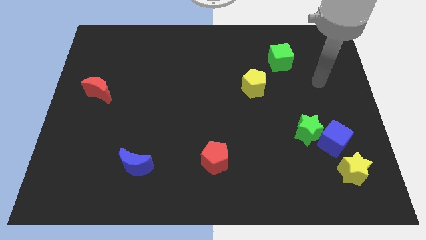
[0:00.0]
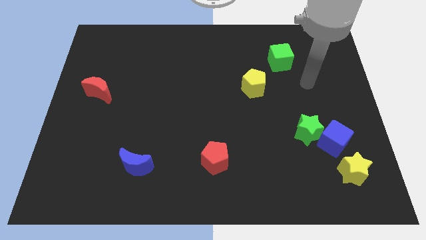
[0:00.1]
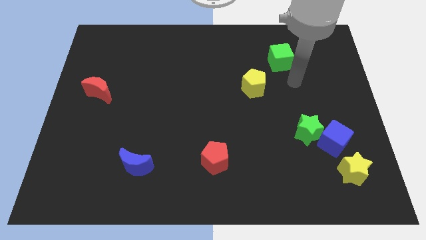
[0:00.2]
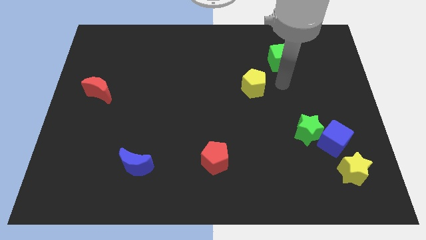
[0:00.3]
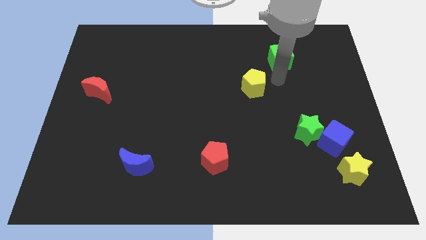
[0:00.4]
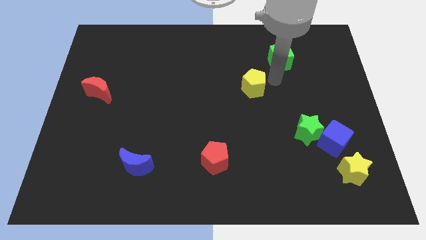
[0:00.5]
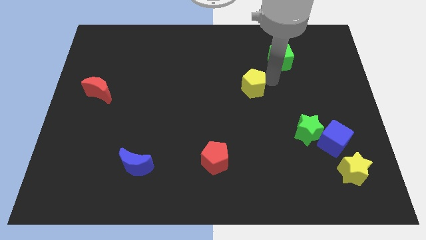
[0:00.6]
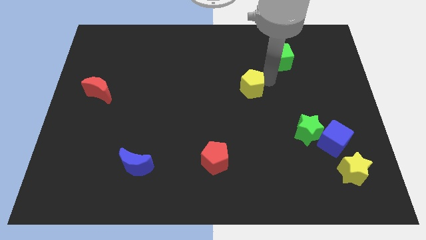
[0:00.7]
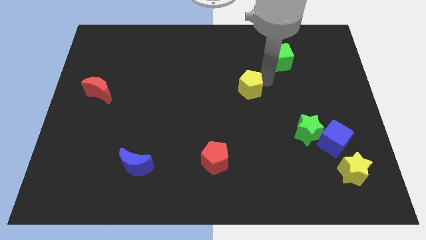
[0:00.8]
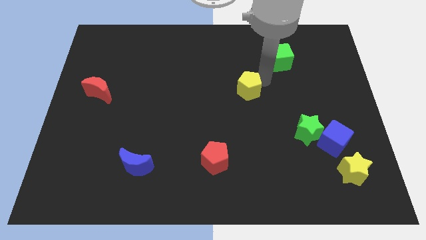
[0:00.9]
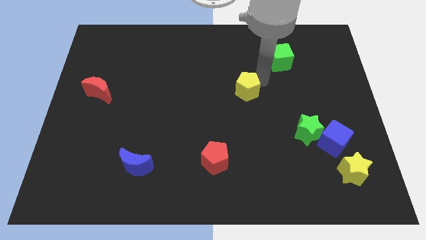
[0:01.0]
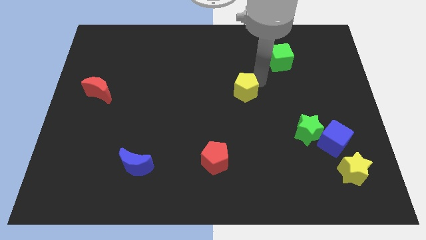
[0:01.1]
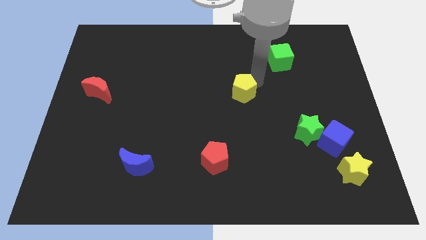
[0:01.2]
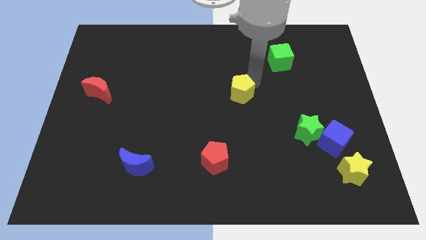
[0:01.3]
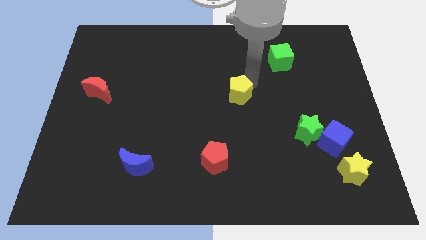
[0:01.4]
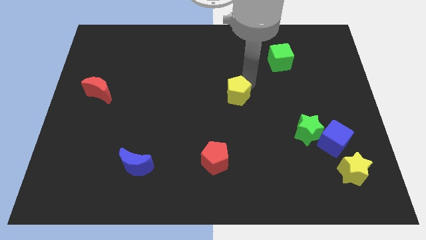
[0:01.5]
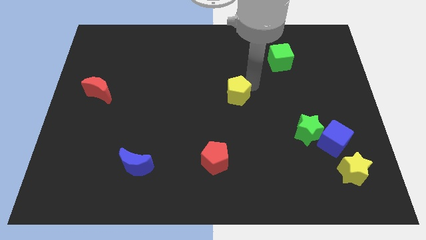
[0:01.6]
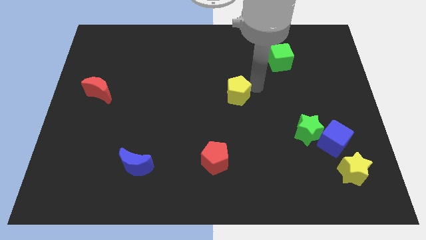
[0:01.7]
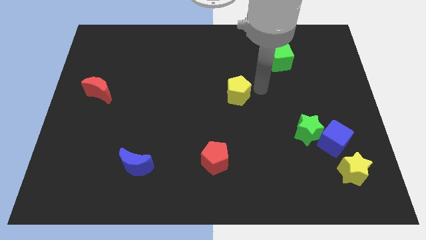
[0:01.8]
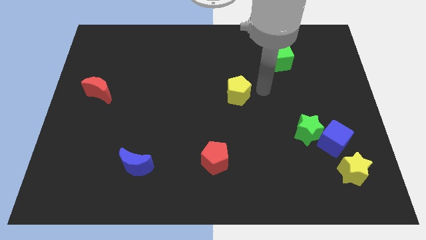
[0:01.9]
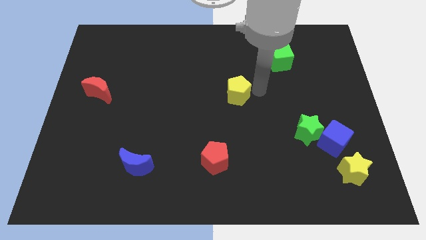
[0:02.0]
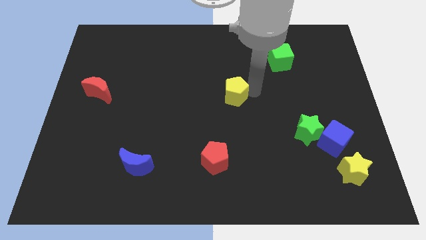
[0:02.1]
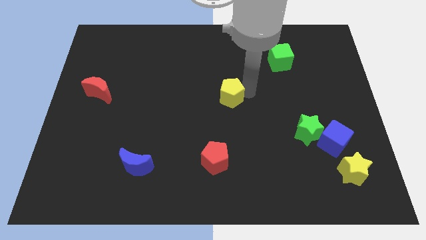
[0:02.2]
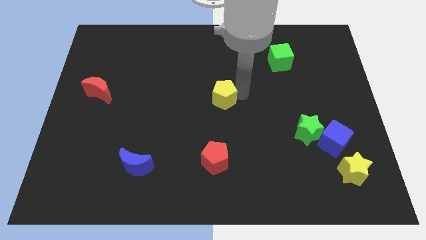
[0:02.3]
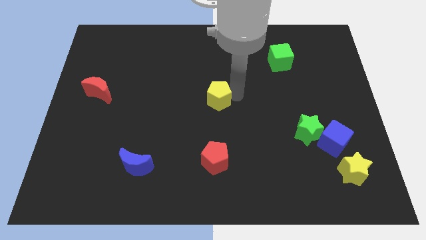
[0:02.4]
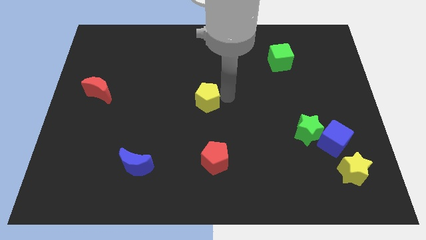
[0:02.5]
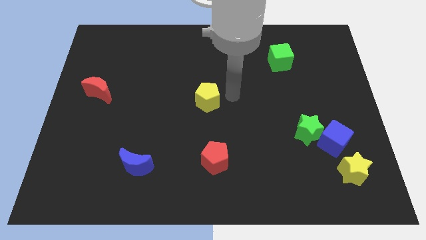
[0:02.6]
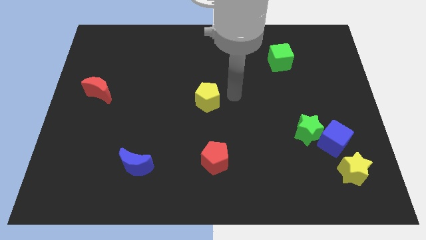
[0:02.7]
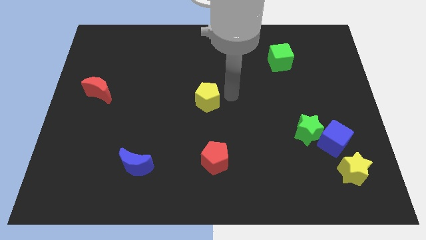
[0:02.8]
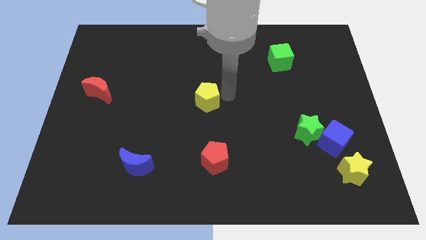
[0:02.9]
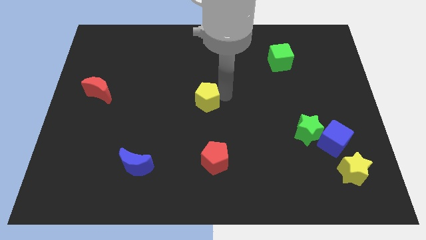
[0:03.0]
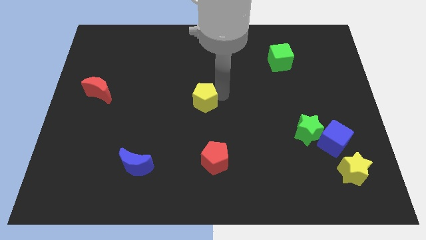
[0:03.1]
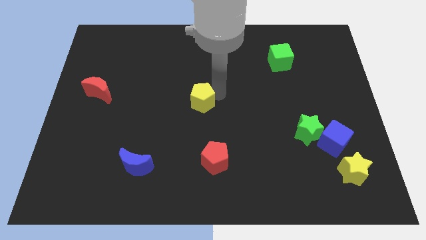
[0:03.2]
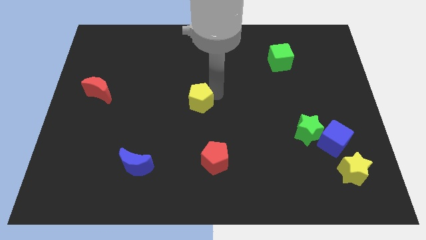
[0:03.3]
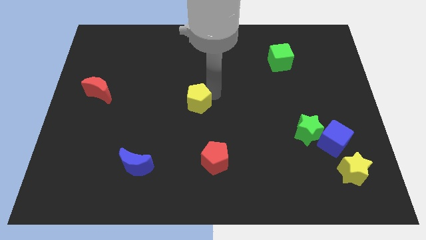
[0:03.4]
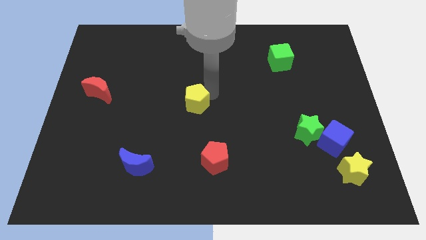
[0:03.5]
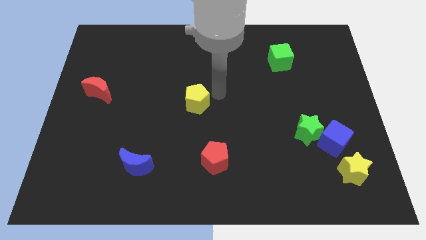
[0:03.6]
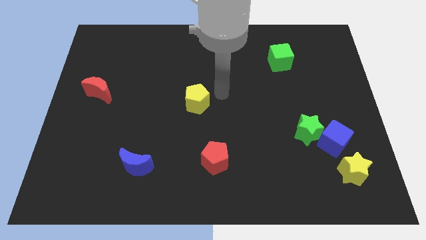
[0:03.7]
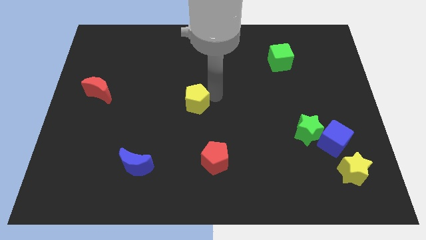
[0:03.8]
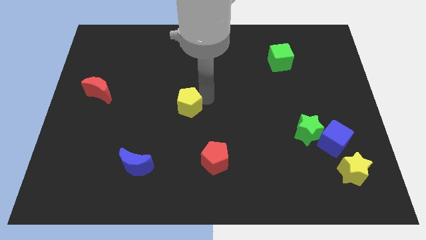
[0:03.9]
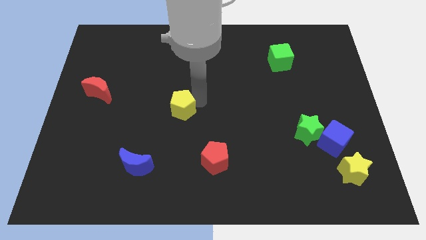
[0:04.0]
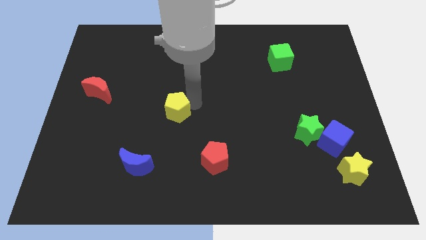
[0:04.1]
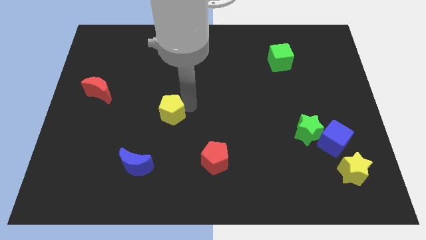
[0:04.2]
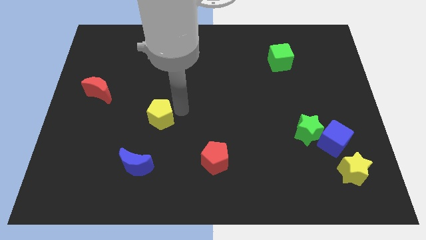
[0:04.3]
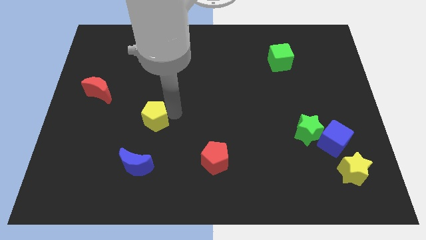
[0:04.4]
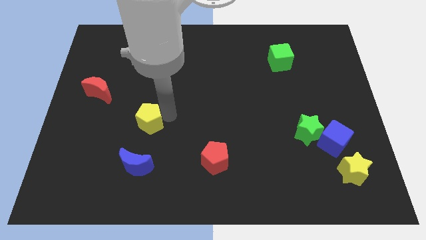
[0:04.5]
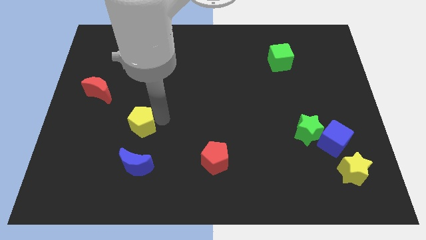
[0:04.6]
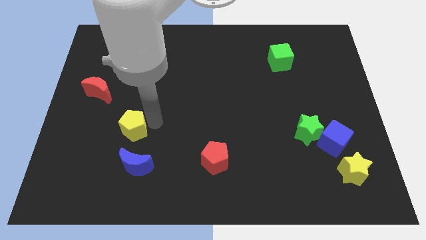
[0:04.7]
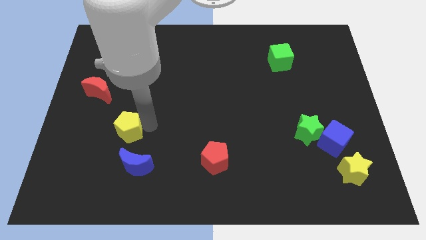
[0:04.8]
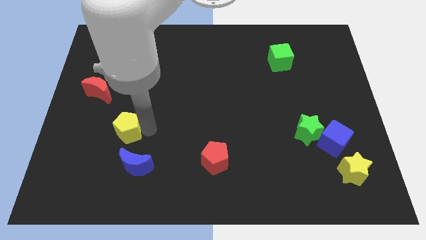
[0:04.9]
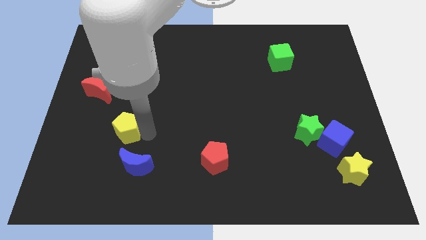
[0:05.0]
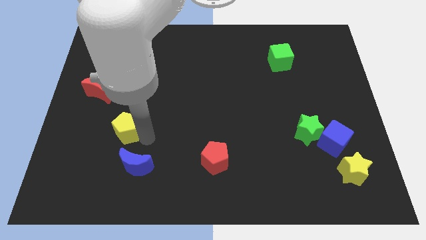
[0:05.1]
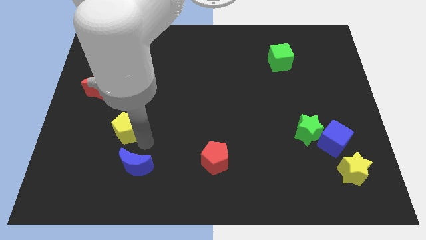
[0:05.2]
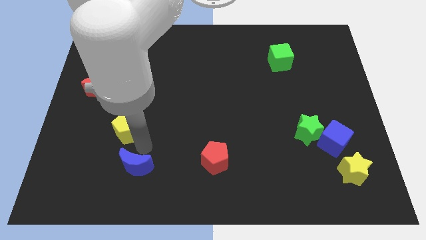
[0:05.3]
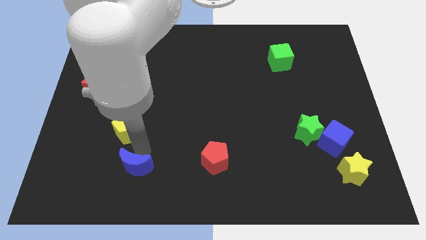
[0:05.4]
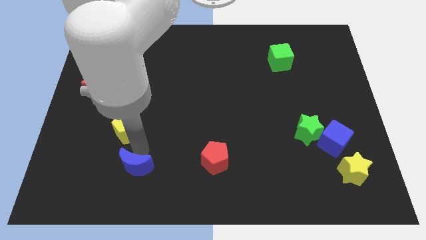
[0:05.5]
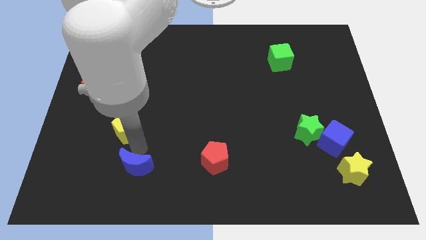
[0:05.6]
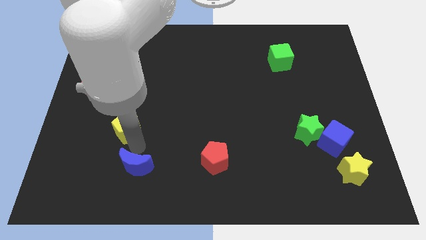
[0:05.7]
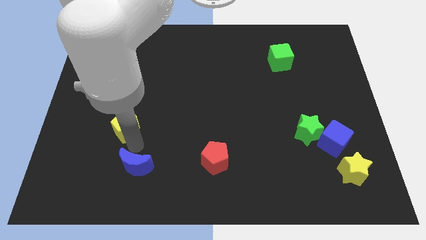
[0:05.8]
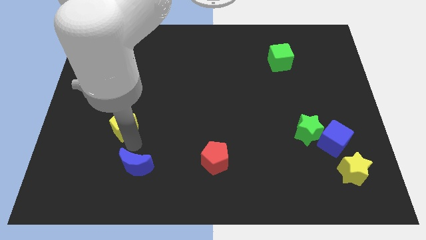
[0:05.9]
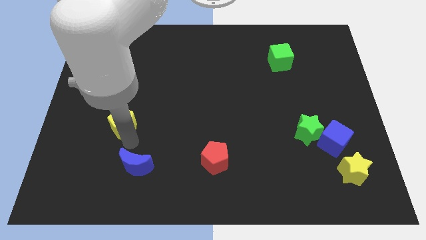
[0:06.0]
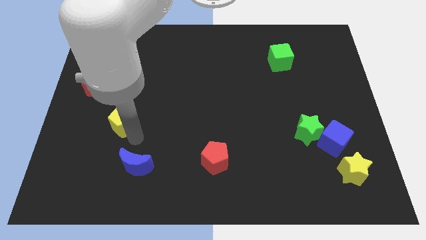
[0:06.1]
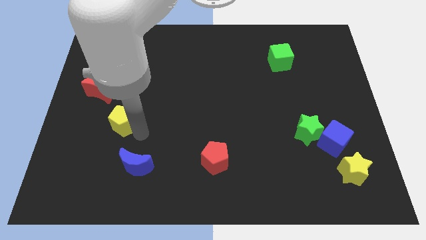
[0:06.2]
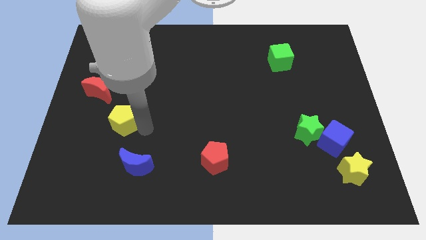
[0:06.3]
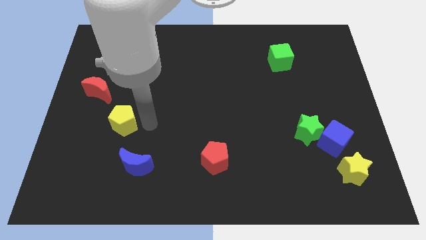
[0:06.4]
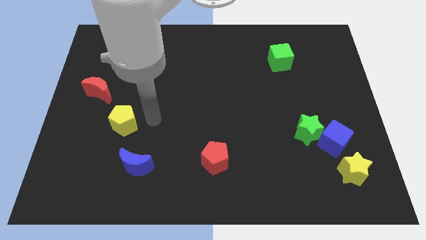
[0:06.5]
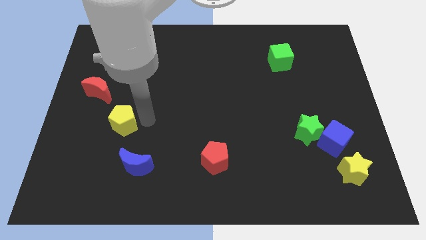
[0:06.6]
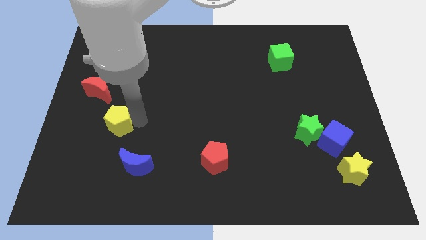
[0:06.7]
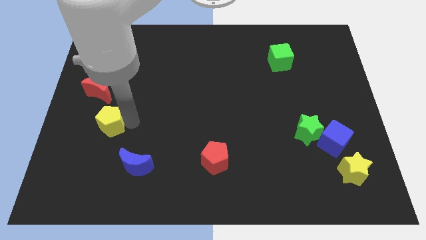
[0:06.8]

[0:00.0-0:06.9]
slide the yellow pentagon below the red moon
